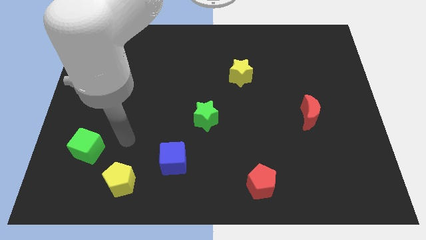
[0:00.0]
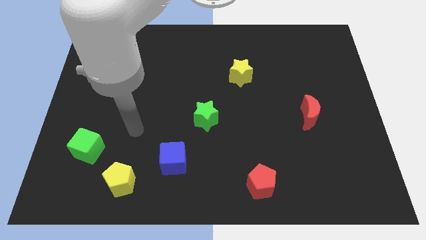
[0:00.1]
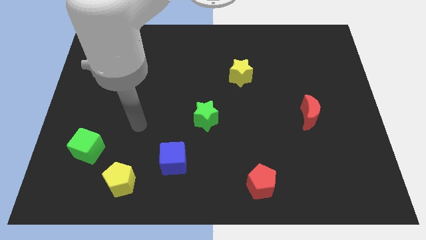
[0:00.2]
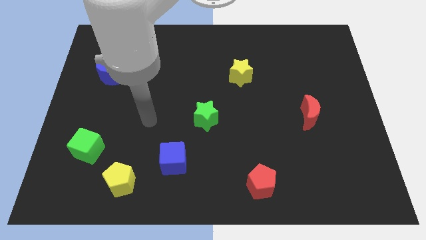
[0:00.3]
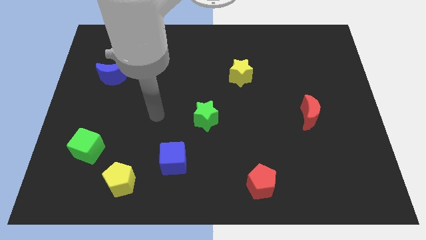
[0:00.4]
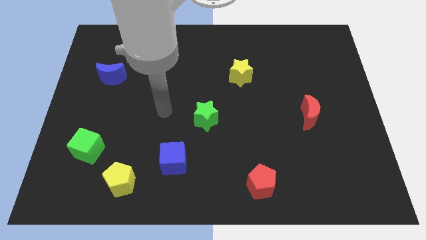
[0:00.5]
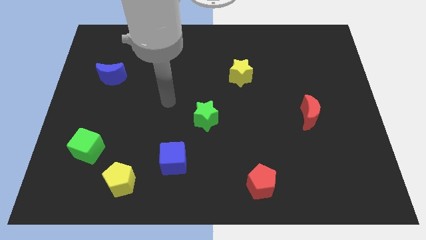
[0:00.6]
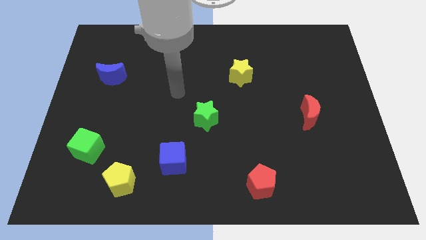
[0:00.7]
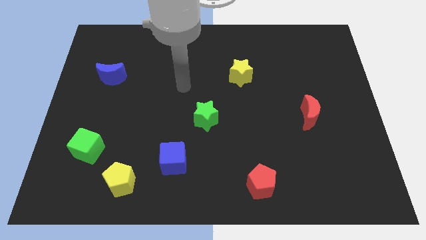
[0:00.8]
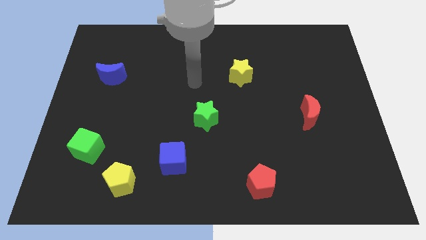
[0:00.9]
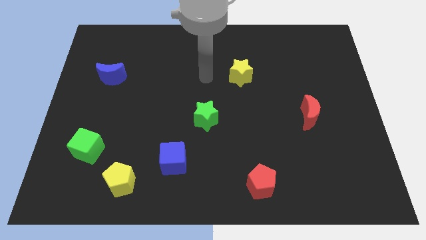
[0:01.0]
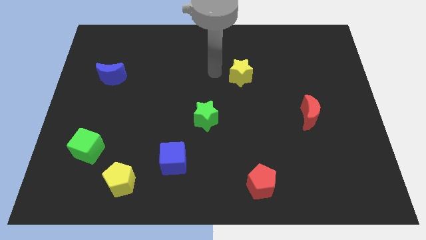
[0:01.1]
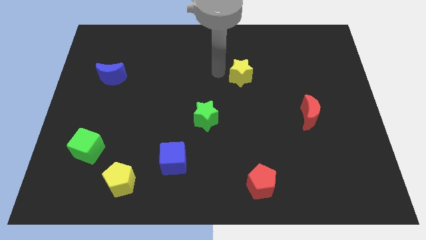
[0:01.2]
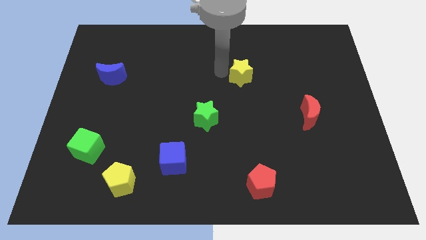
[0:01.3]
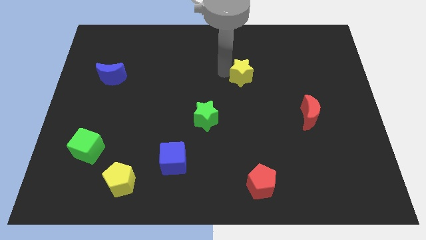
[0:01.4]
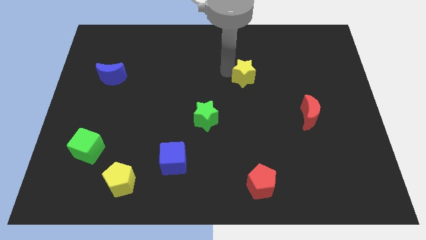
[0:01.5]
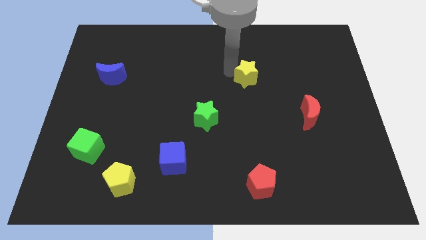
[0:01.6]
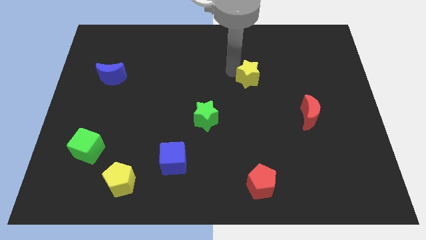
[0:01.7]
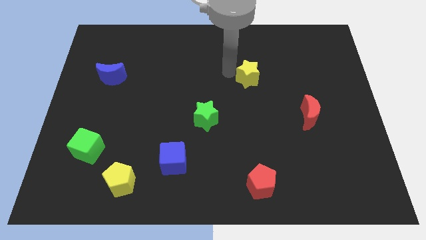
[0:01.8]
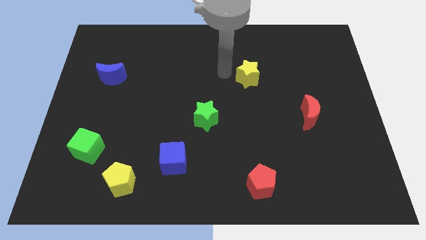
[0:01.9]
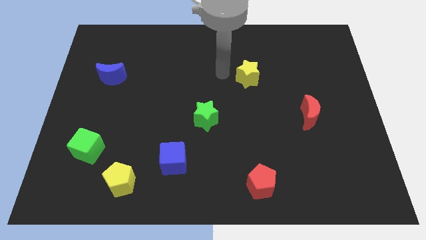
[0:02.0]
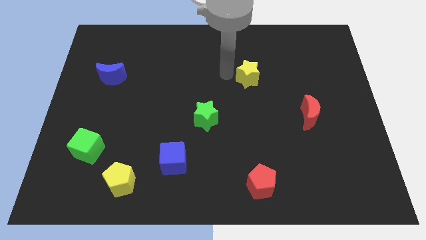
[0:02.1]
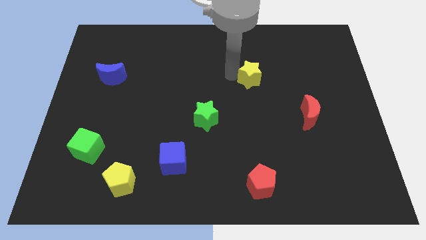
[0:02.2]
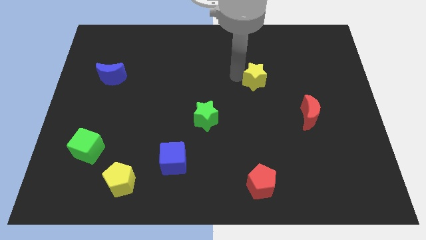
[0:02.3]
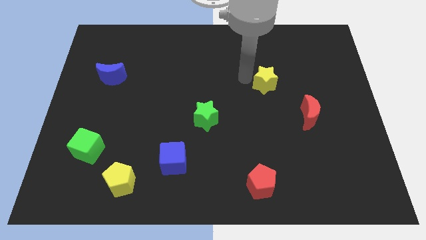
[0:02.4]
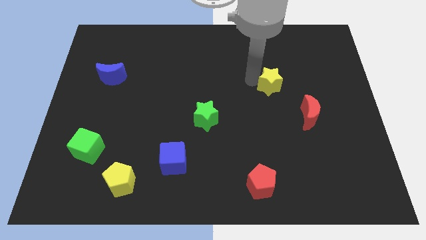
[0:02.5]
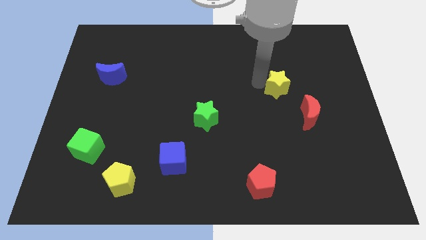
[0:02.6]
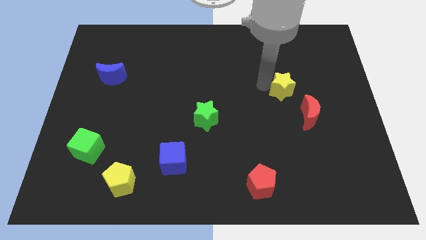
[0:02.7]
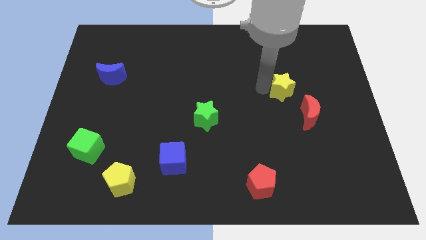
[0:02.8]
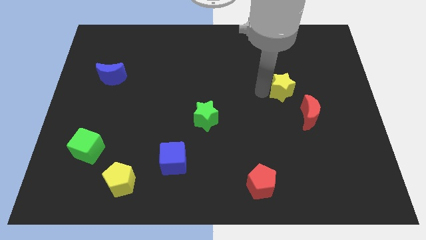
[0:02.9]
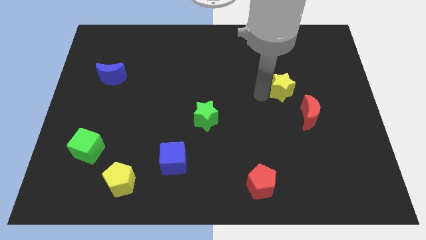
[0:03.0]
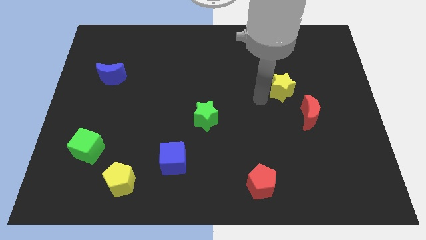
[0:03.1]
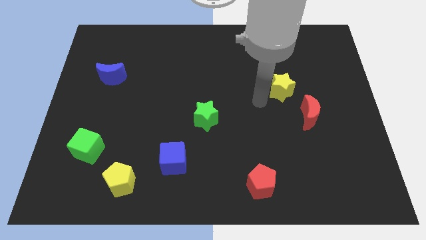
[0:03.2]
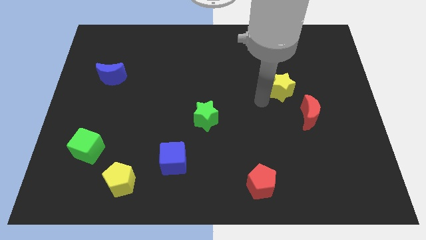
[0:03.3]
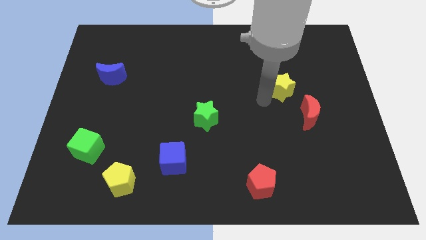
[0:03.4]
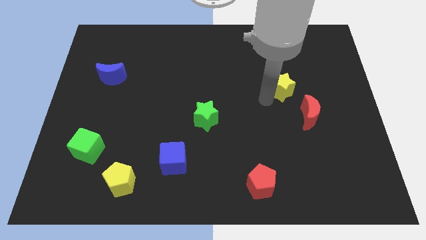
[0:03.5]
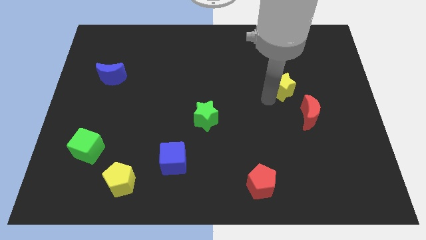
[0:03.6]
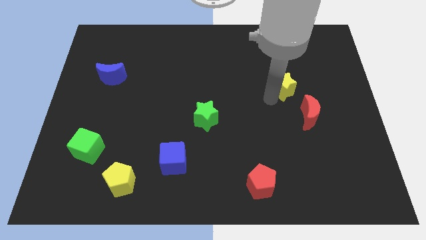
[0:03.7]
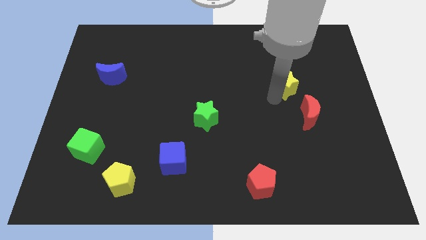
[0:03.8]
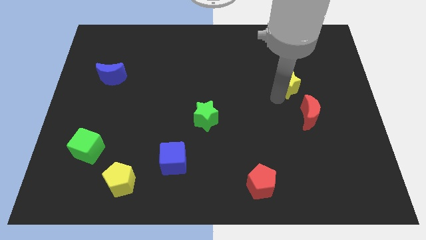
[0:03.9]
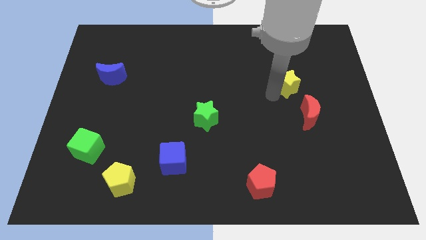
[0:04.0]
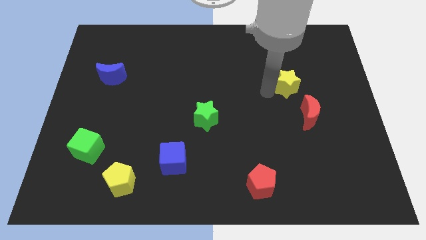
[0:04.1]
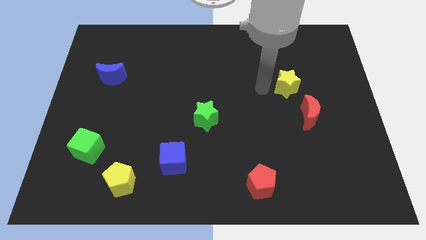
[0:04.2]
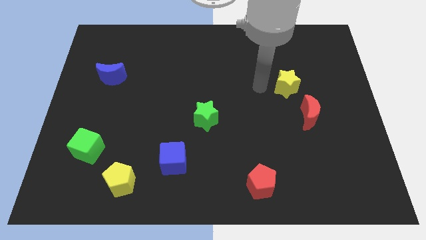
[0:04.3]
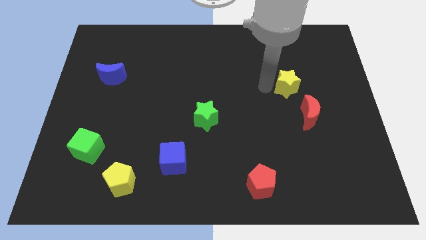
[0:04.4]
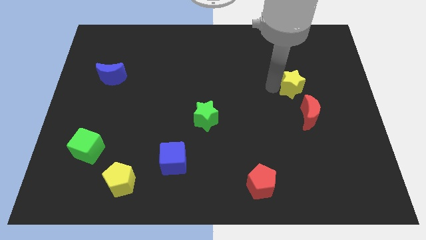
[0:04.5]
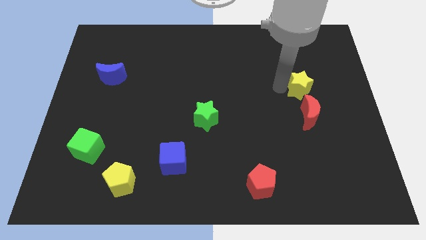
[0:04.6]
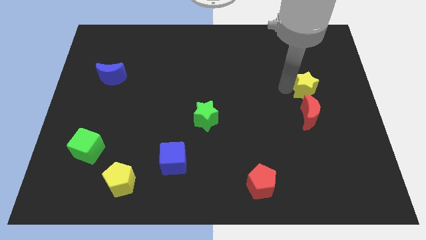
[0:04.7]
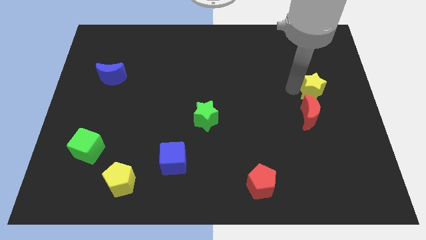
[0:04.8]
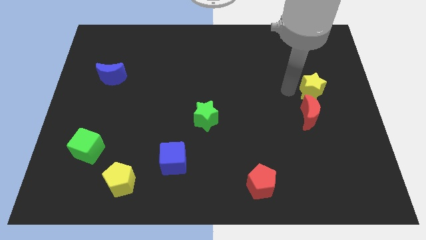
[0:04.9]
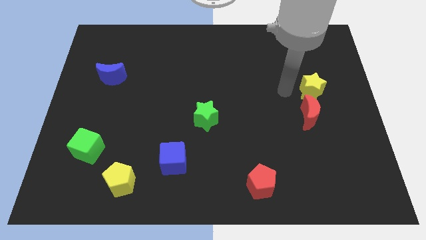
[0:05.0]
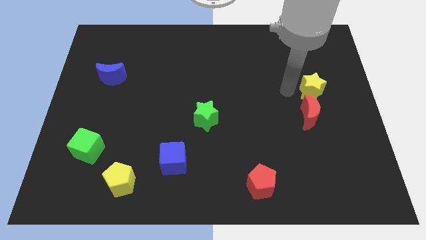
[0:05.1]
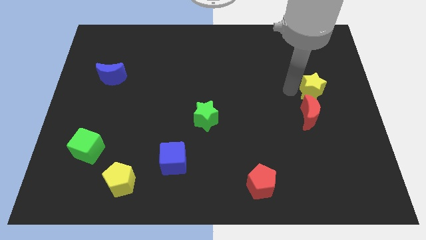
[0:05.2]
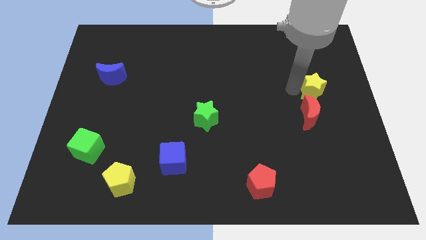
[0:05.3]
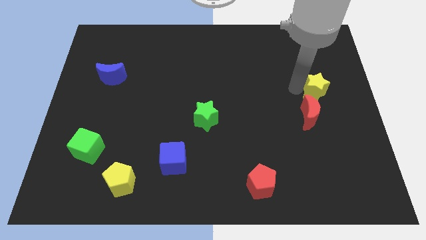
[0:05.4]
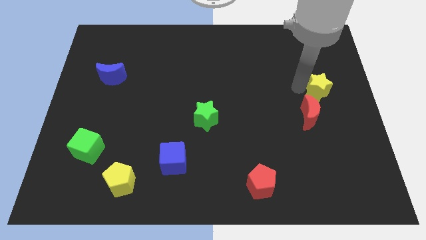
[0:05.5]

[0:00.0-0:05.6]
push the yellow star to the center right

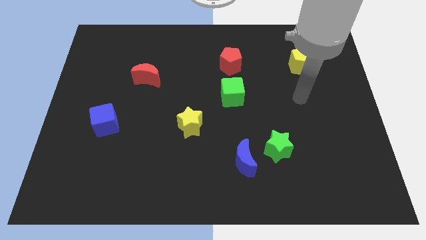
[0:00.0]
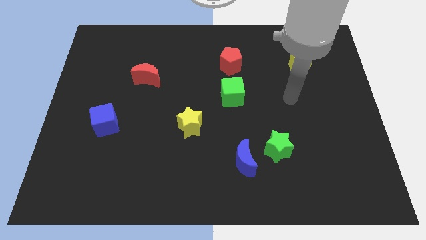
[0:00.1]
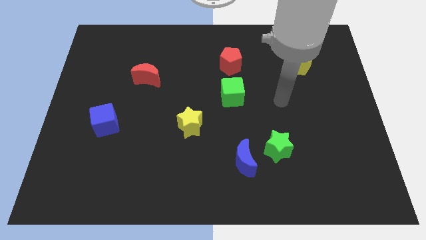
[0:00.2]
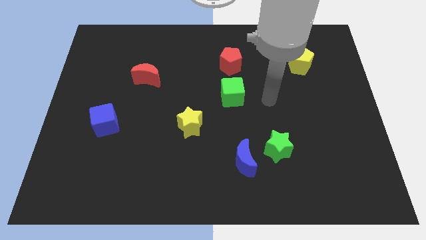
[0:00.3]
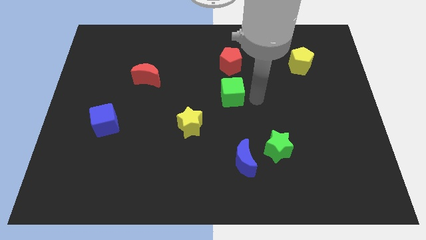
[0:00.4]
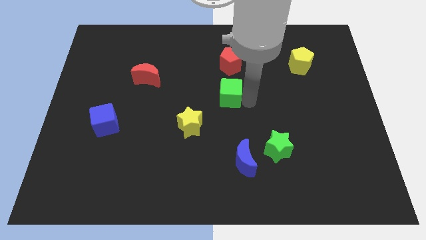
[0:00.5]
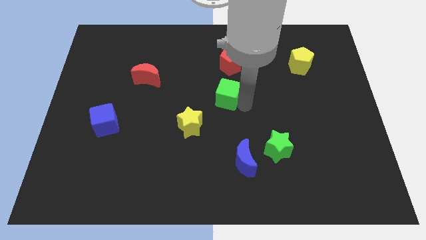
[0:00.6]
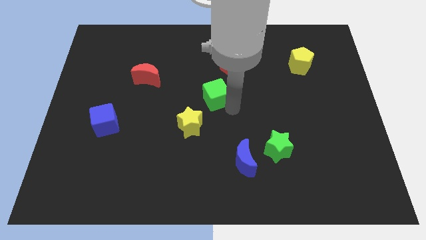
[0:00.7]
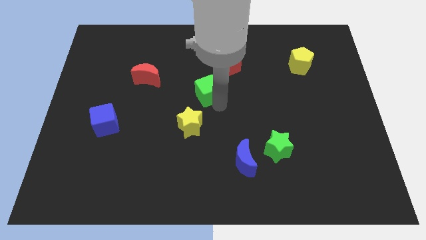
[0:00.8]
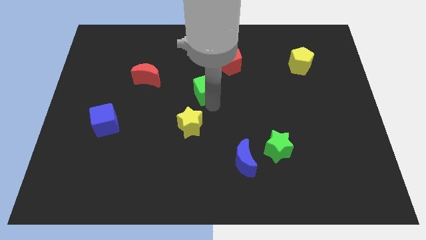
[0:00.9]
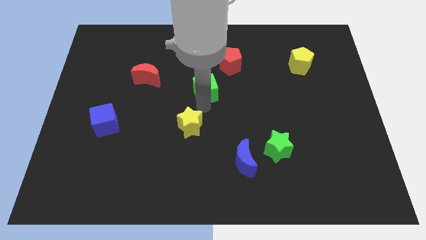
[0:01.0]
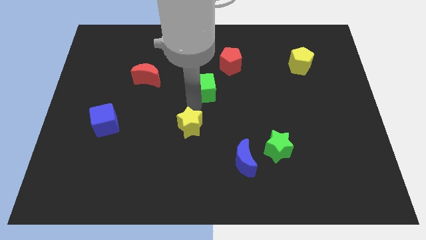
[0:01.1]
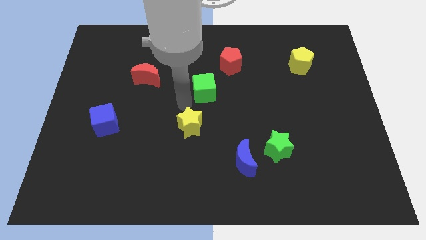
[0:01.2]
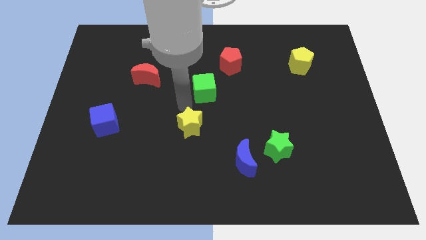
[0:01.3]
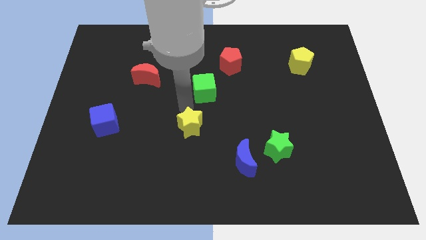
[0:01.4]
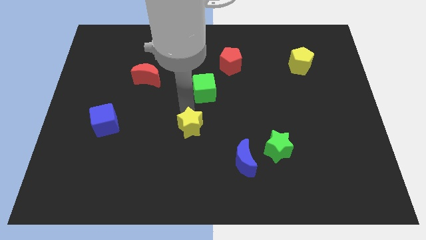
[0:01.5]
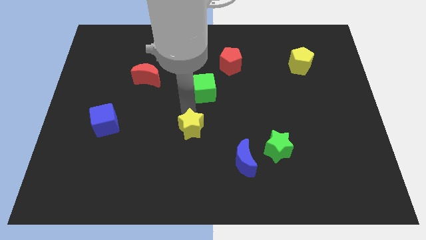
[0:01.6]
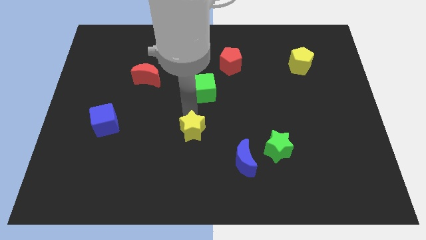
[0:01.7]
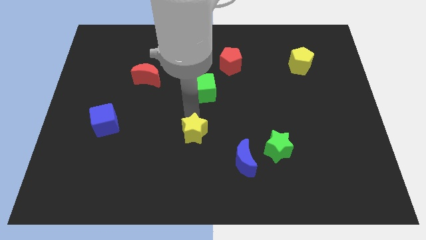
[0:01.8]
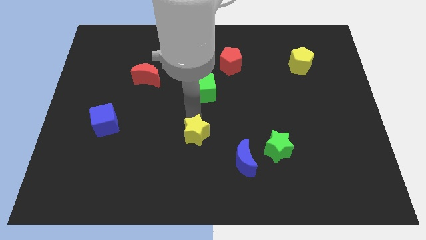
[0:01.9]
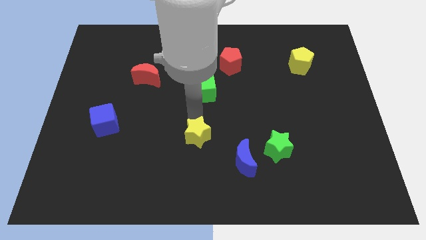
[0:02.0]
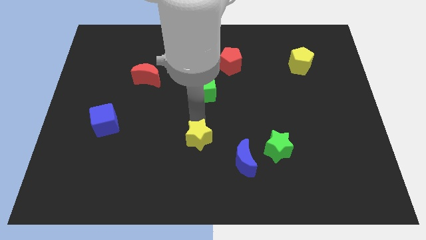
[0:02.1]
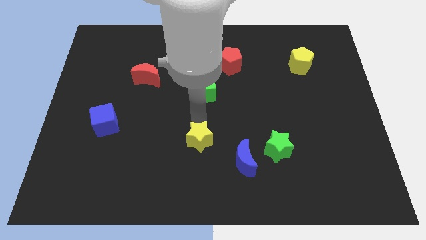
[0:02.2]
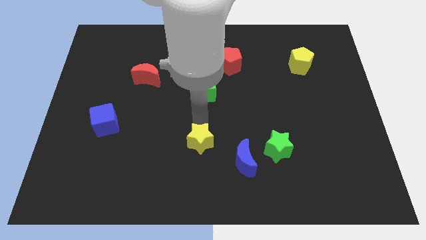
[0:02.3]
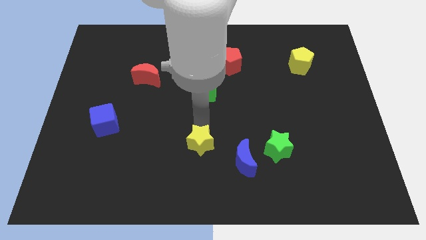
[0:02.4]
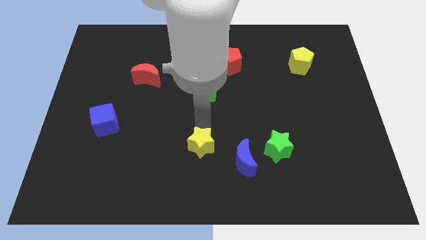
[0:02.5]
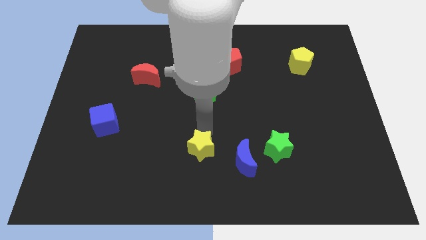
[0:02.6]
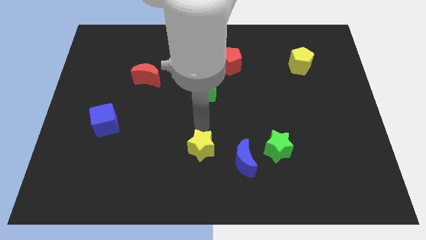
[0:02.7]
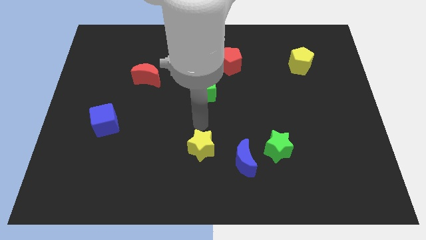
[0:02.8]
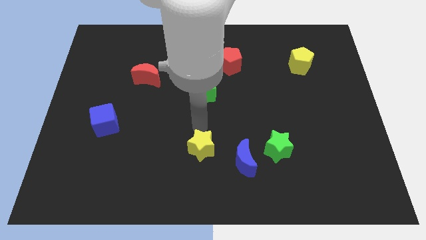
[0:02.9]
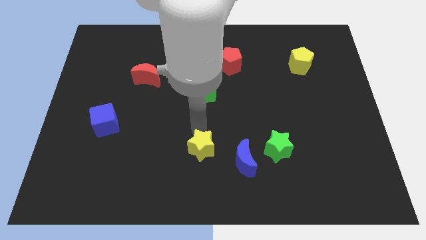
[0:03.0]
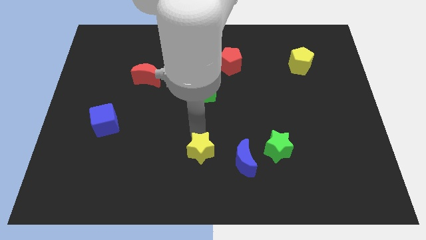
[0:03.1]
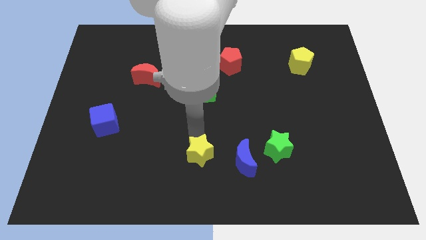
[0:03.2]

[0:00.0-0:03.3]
slide the yellow star to the bottom side
